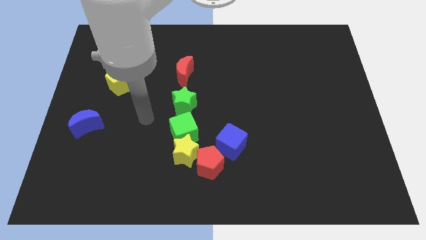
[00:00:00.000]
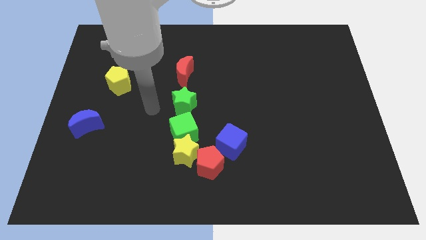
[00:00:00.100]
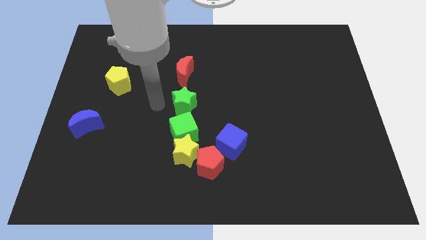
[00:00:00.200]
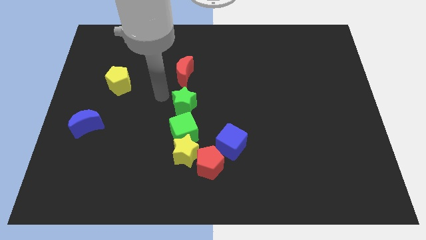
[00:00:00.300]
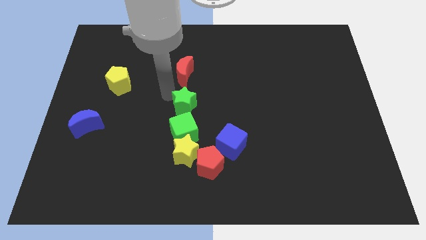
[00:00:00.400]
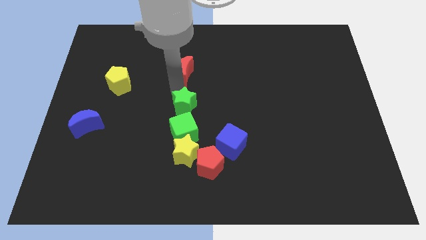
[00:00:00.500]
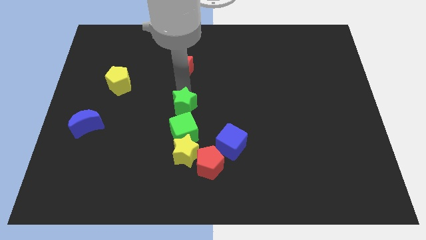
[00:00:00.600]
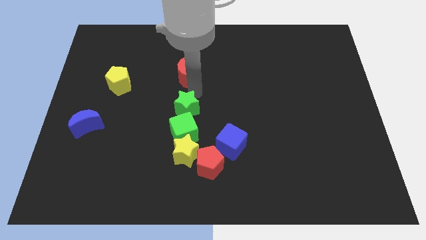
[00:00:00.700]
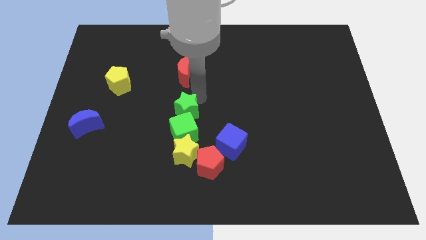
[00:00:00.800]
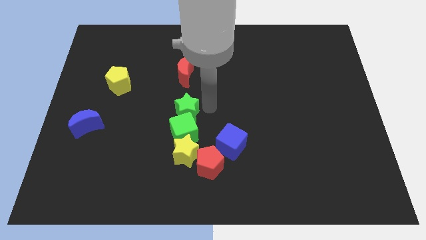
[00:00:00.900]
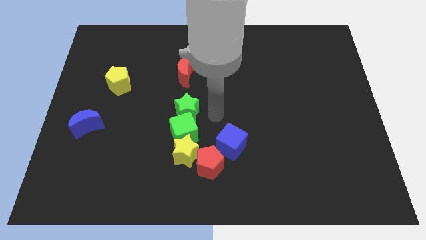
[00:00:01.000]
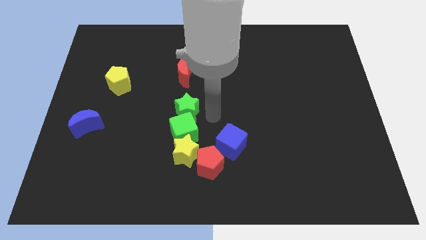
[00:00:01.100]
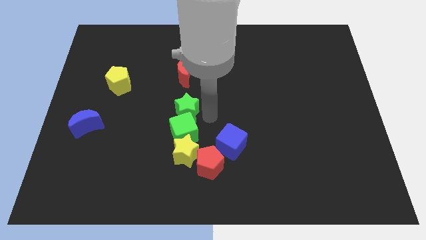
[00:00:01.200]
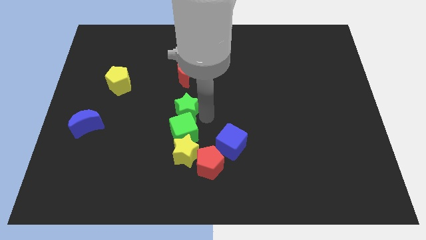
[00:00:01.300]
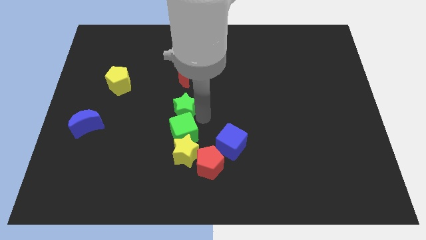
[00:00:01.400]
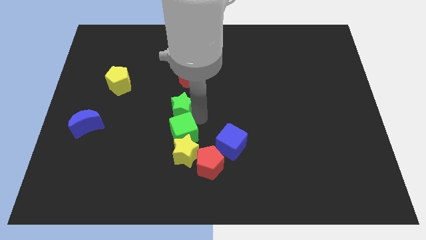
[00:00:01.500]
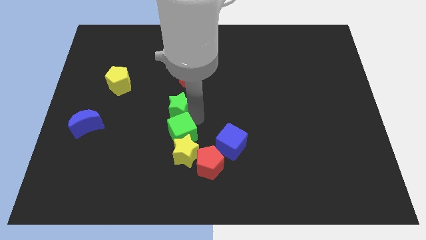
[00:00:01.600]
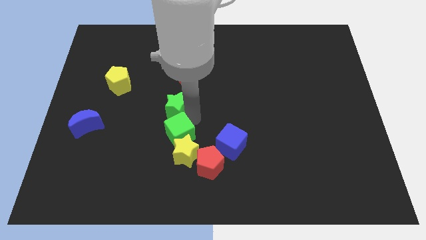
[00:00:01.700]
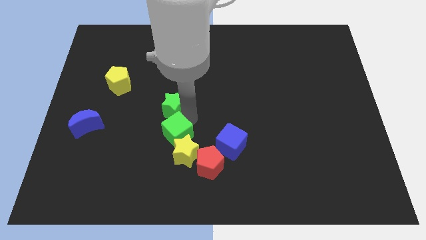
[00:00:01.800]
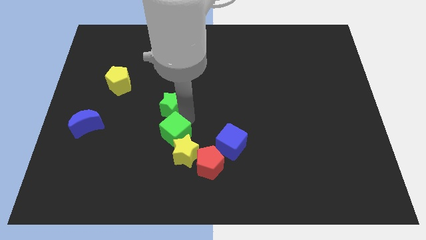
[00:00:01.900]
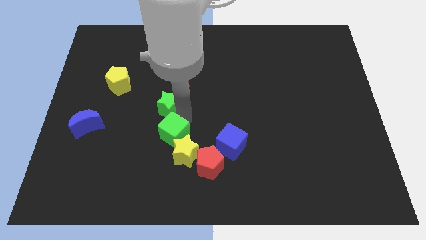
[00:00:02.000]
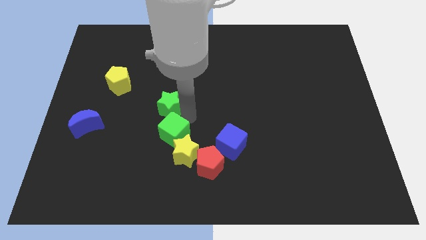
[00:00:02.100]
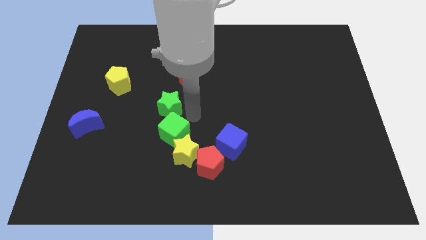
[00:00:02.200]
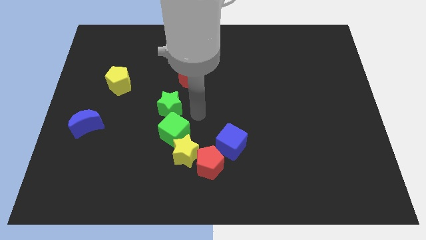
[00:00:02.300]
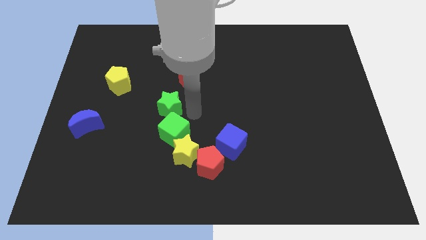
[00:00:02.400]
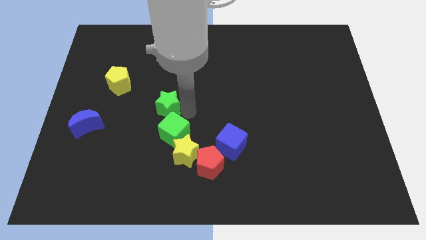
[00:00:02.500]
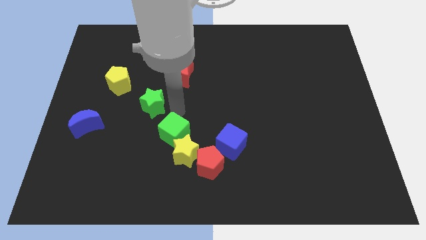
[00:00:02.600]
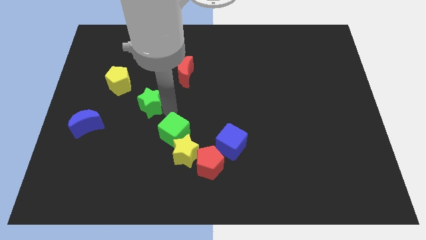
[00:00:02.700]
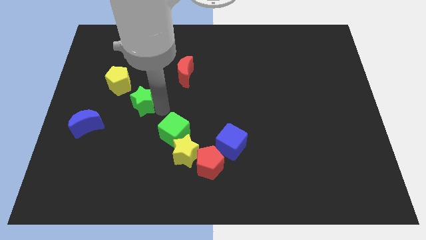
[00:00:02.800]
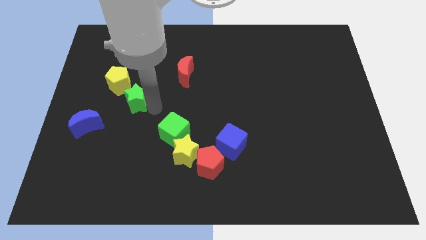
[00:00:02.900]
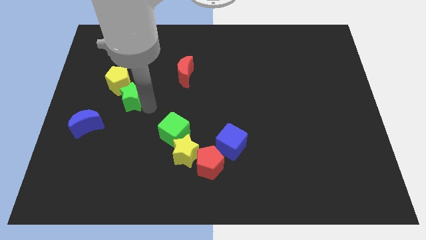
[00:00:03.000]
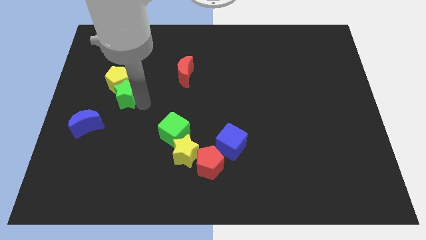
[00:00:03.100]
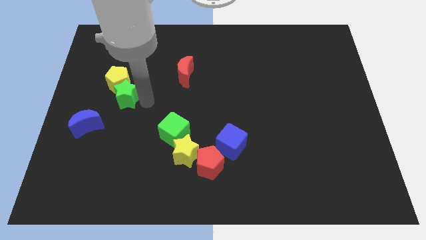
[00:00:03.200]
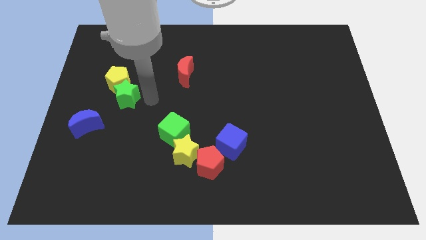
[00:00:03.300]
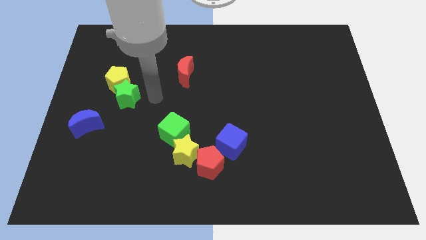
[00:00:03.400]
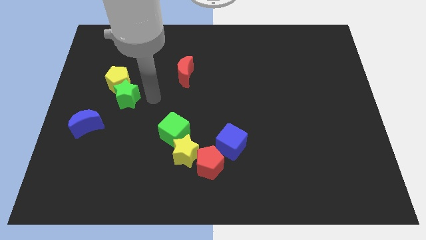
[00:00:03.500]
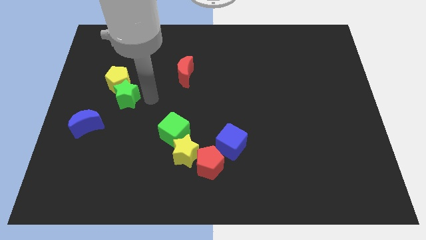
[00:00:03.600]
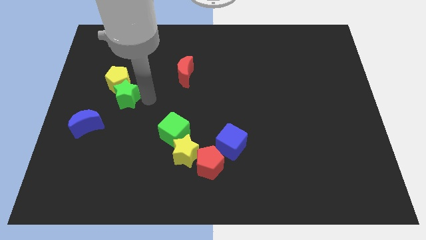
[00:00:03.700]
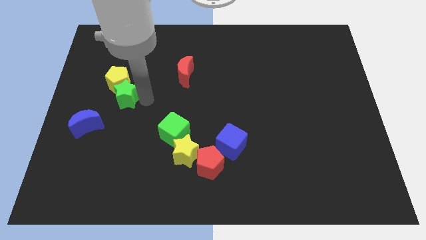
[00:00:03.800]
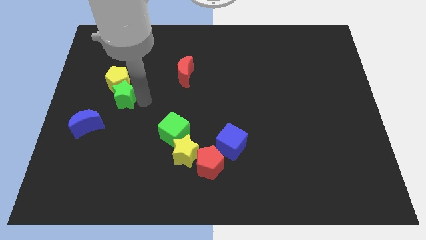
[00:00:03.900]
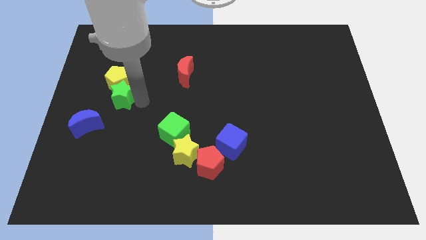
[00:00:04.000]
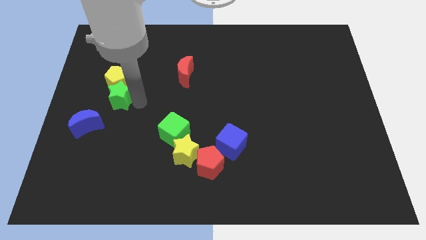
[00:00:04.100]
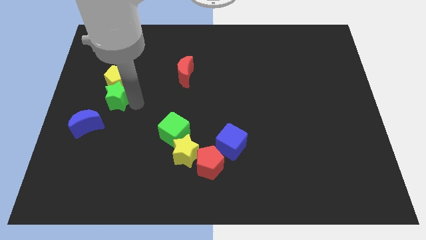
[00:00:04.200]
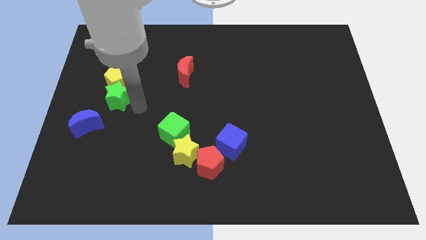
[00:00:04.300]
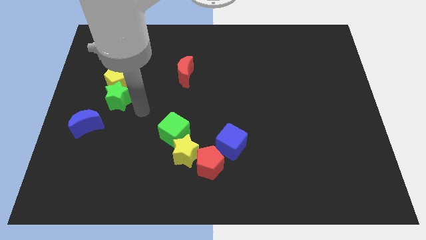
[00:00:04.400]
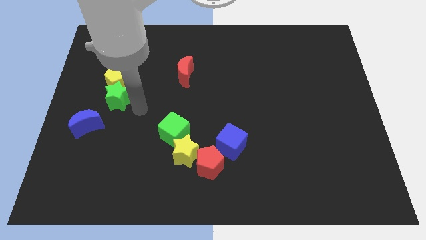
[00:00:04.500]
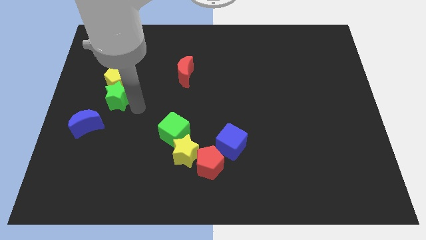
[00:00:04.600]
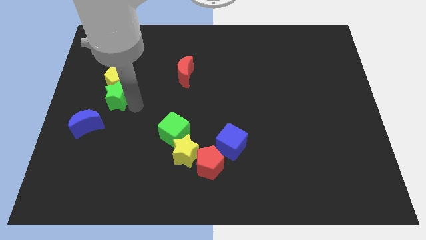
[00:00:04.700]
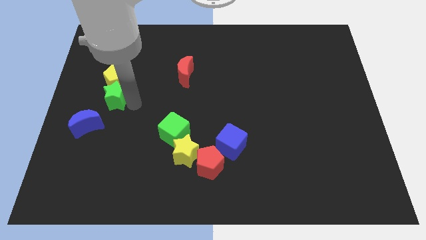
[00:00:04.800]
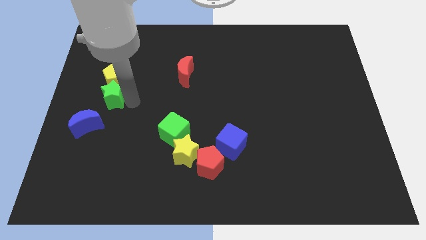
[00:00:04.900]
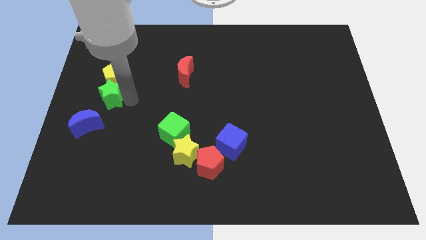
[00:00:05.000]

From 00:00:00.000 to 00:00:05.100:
move the green star to the top side of the blue moon

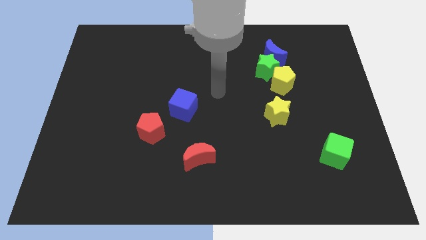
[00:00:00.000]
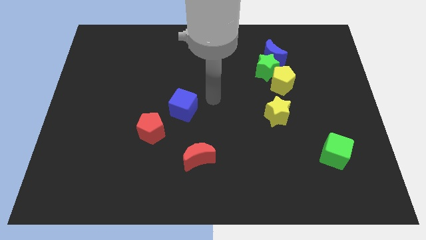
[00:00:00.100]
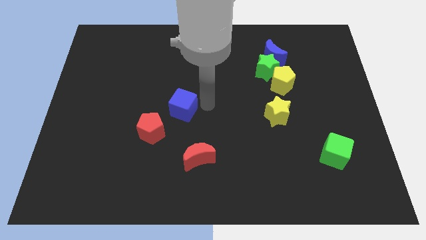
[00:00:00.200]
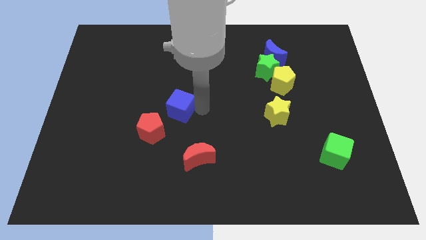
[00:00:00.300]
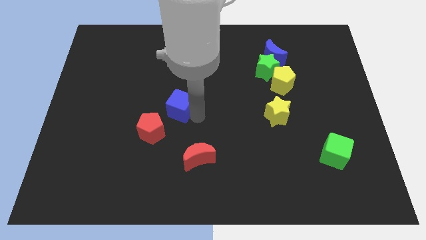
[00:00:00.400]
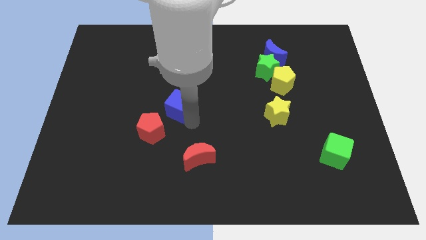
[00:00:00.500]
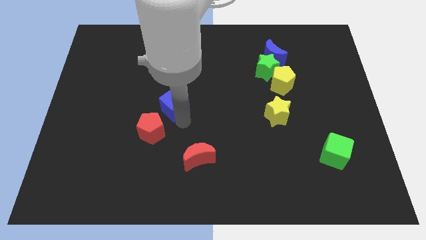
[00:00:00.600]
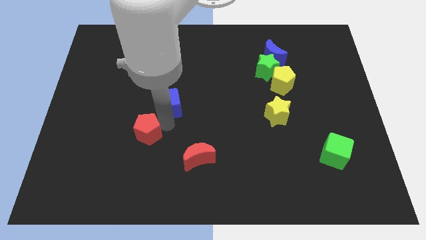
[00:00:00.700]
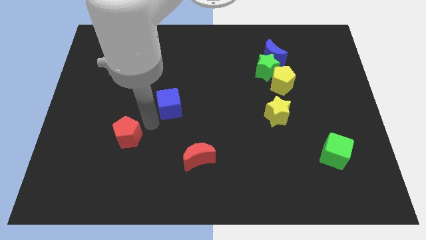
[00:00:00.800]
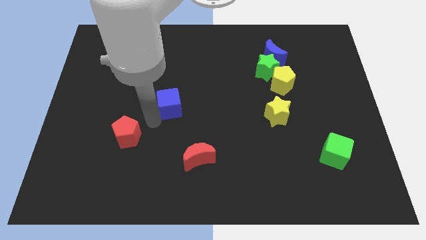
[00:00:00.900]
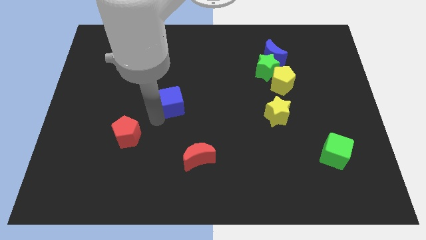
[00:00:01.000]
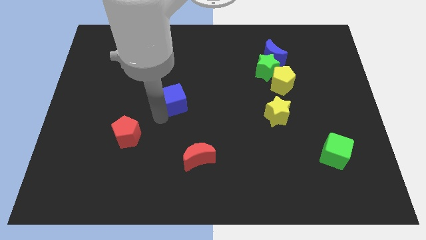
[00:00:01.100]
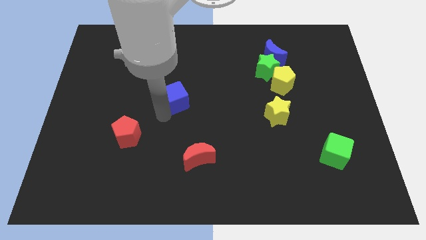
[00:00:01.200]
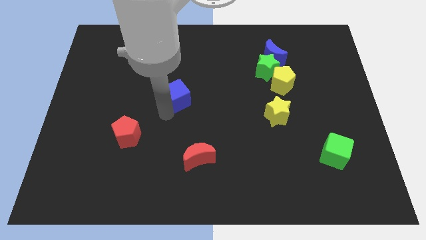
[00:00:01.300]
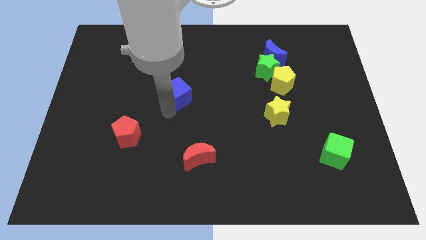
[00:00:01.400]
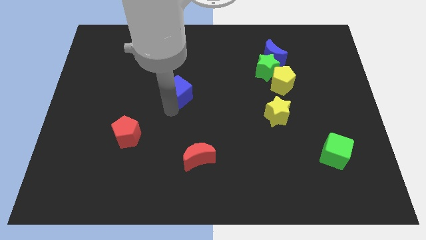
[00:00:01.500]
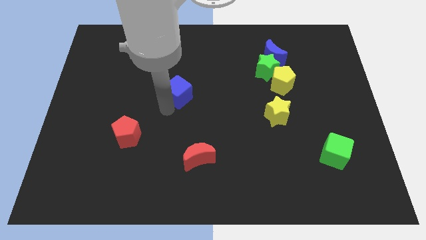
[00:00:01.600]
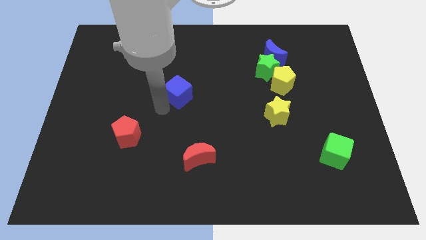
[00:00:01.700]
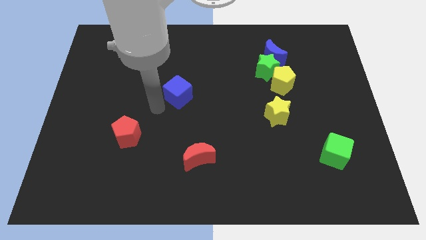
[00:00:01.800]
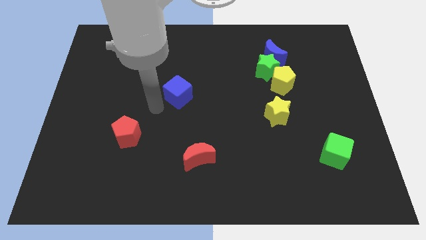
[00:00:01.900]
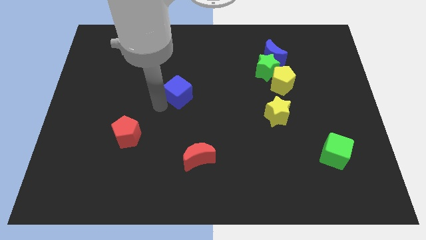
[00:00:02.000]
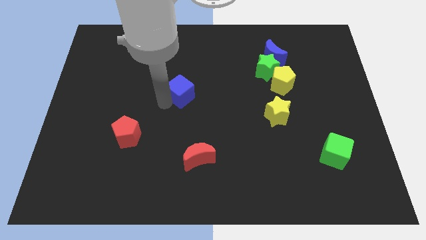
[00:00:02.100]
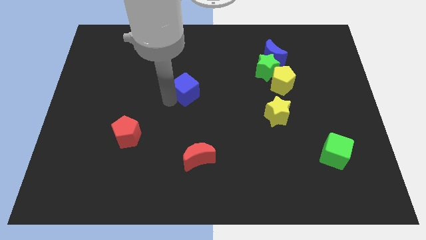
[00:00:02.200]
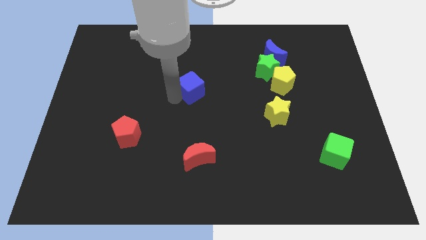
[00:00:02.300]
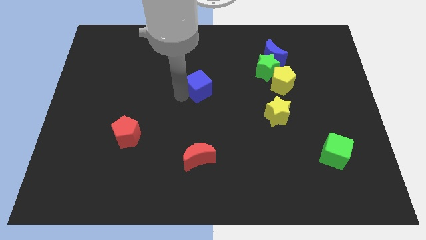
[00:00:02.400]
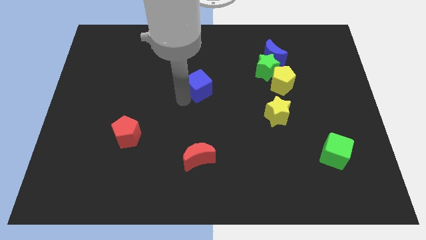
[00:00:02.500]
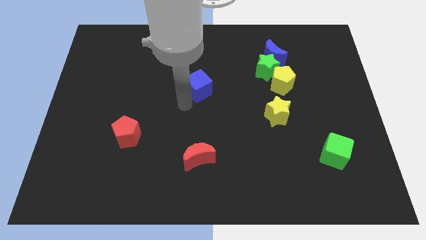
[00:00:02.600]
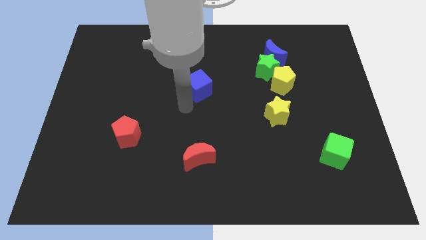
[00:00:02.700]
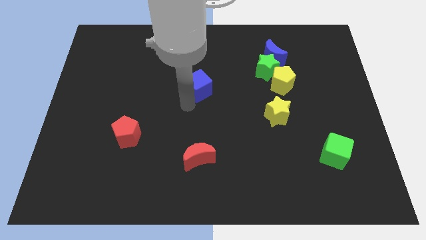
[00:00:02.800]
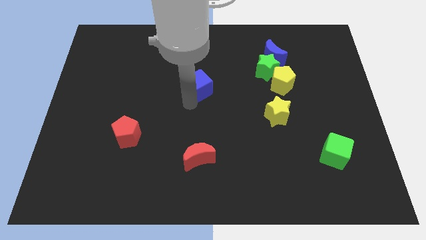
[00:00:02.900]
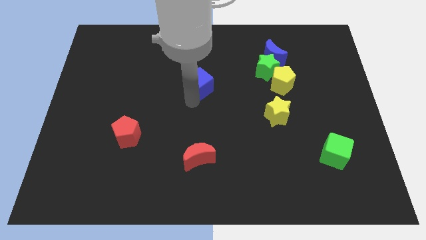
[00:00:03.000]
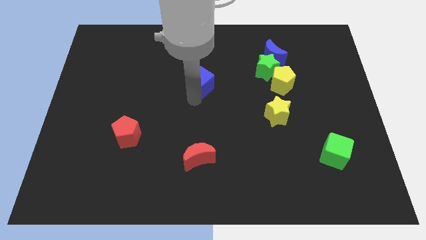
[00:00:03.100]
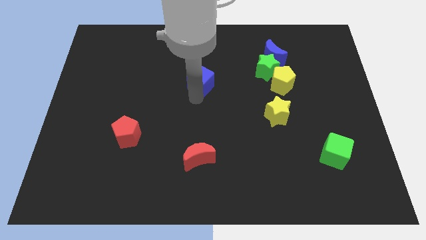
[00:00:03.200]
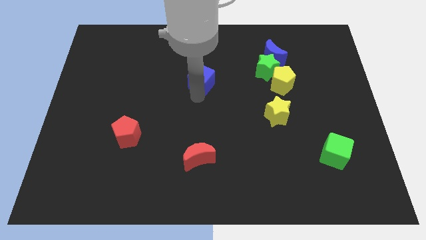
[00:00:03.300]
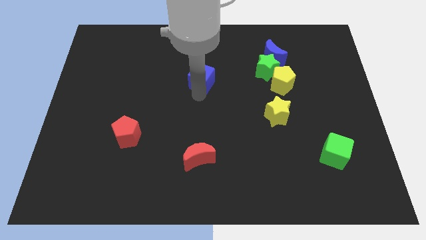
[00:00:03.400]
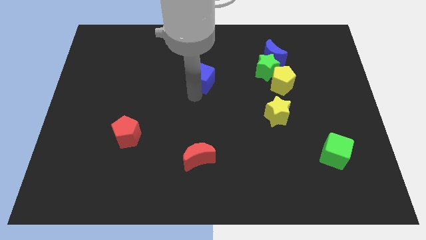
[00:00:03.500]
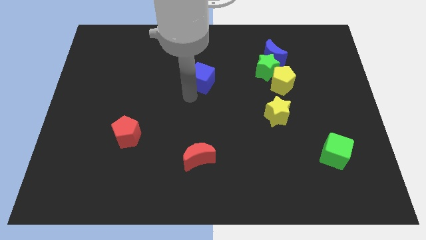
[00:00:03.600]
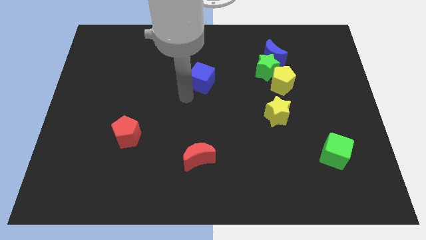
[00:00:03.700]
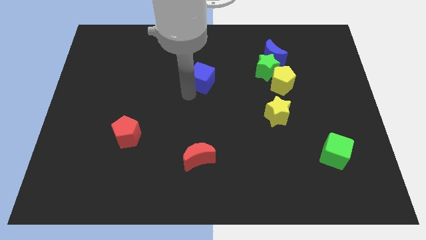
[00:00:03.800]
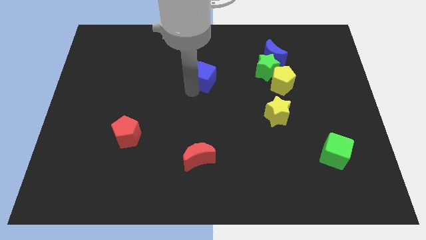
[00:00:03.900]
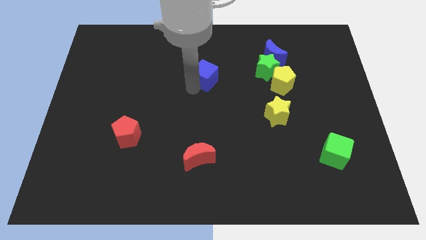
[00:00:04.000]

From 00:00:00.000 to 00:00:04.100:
move the blue cube left of the green star
